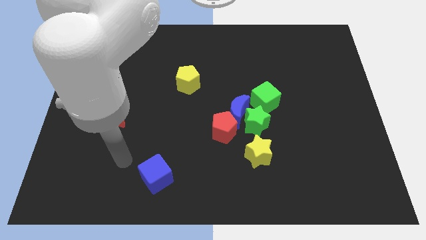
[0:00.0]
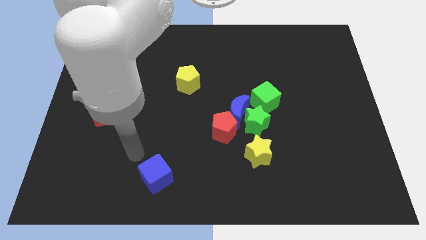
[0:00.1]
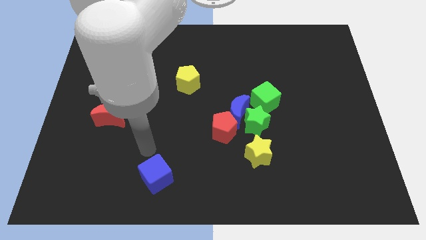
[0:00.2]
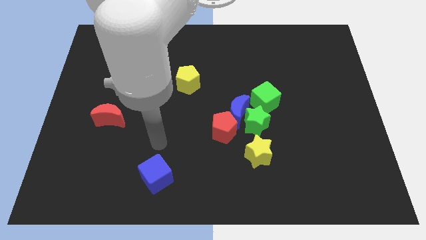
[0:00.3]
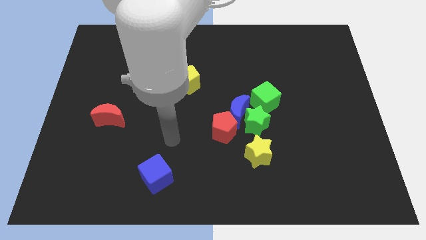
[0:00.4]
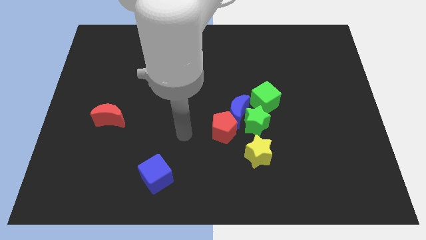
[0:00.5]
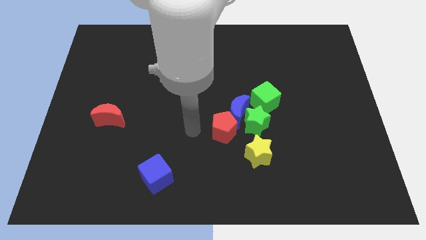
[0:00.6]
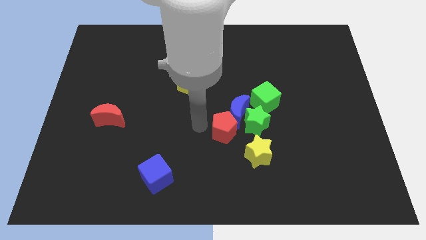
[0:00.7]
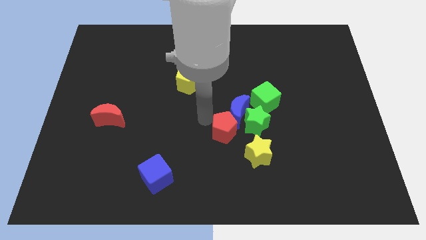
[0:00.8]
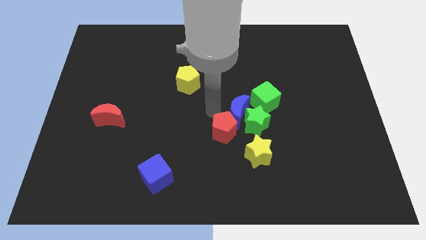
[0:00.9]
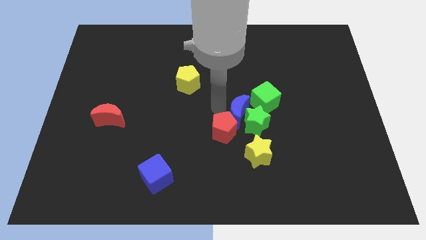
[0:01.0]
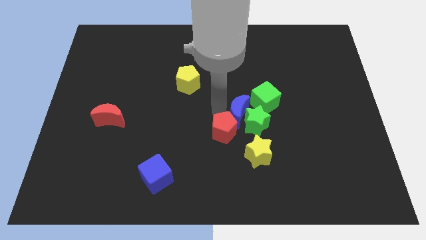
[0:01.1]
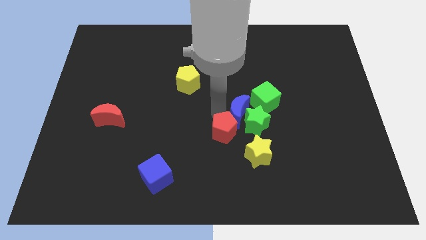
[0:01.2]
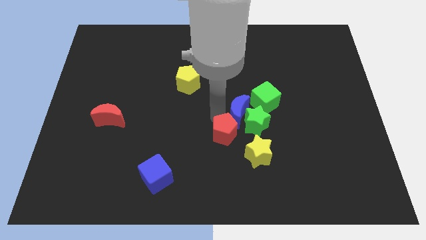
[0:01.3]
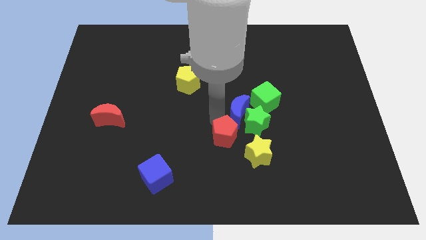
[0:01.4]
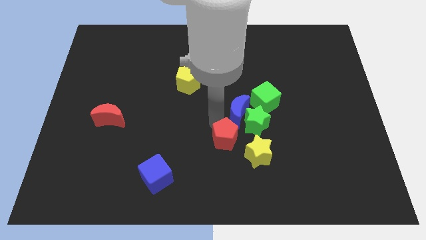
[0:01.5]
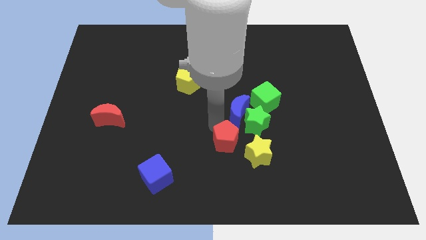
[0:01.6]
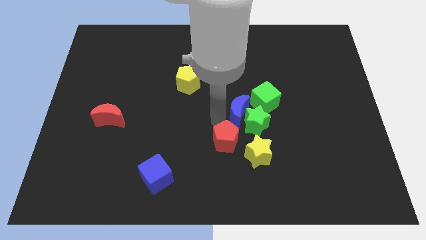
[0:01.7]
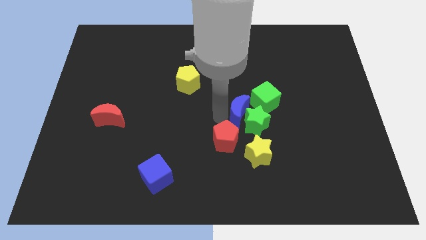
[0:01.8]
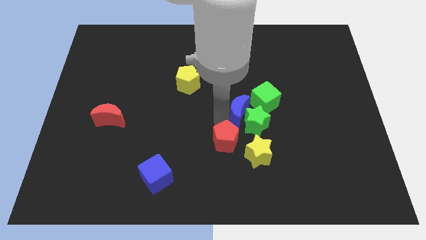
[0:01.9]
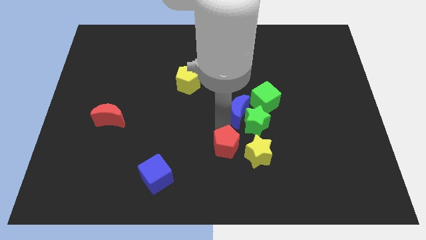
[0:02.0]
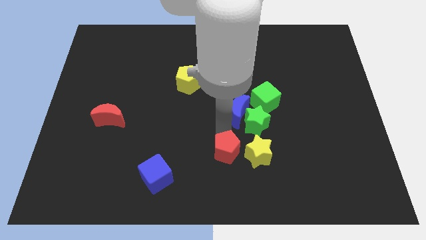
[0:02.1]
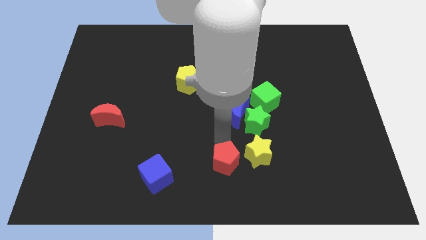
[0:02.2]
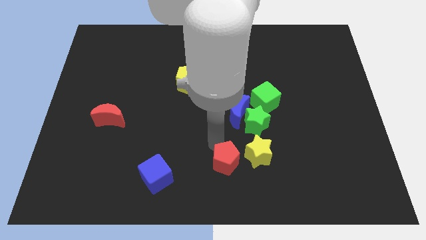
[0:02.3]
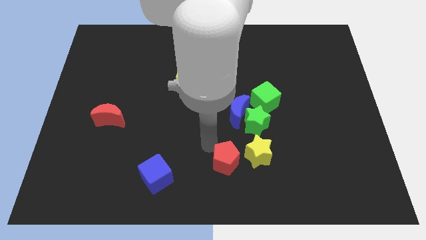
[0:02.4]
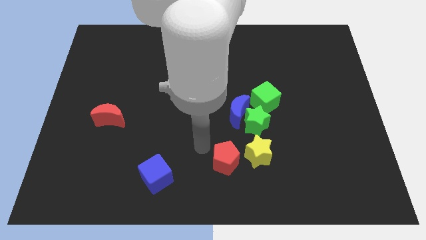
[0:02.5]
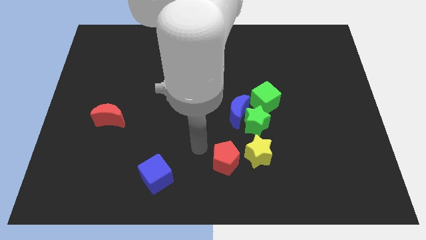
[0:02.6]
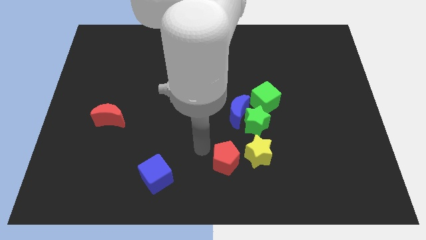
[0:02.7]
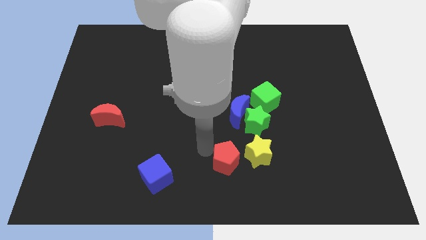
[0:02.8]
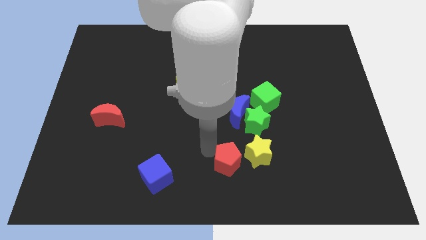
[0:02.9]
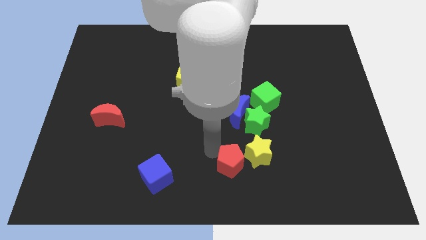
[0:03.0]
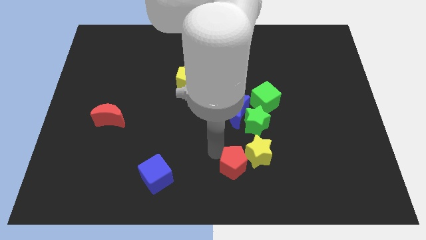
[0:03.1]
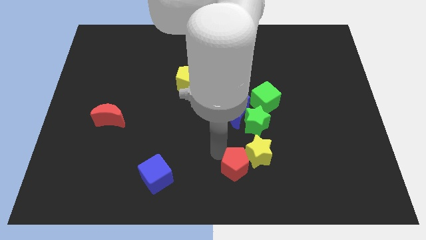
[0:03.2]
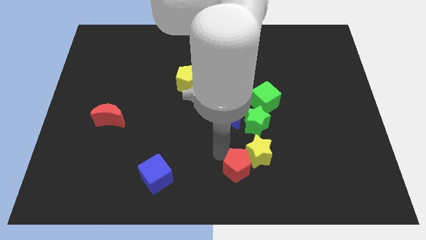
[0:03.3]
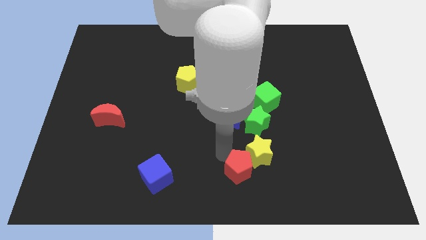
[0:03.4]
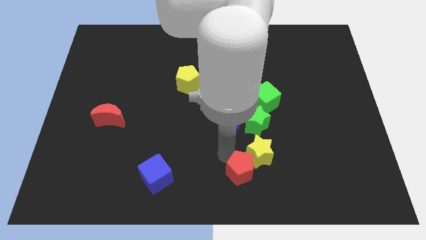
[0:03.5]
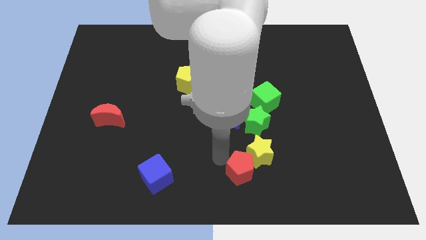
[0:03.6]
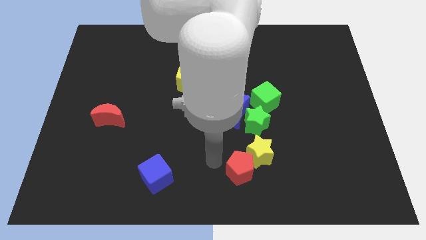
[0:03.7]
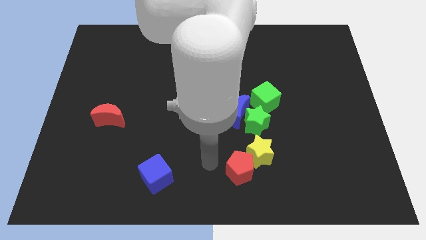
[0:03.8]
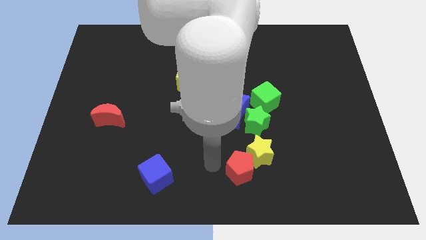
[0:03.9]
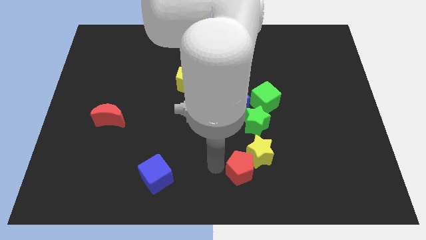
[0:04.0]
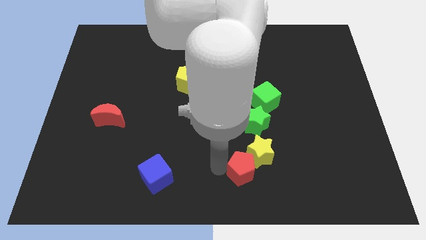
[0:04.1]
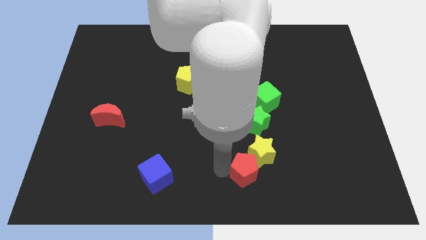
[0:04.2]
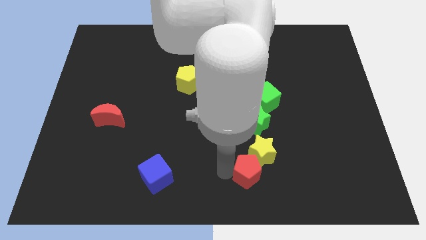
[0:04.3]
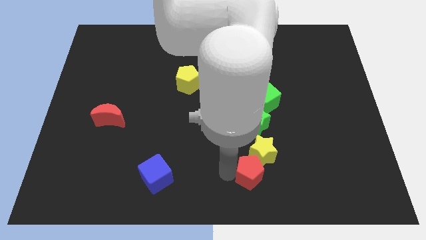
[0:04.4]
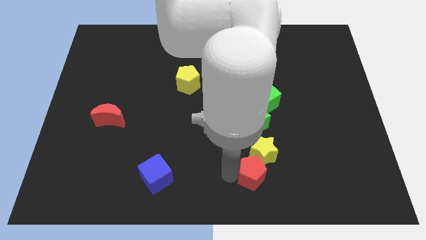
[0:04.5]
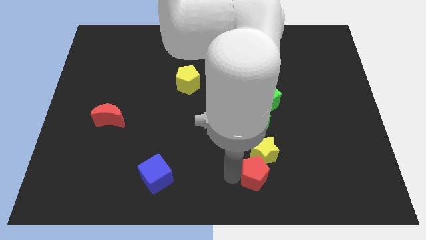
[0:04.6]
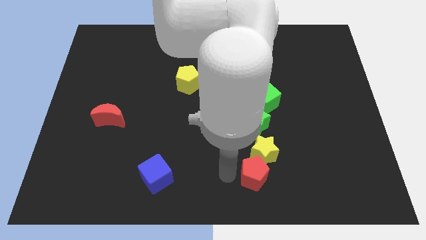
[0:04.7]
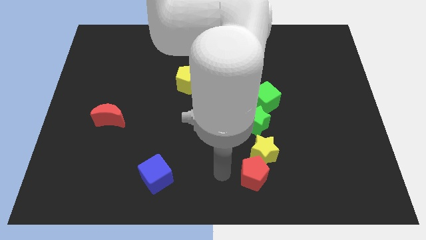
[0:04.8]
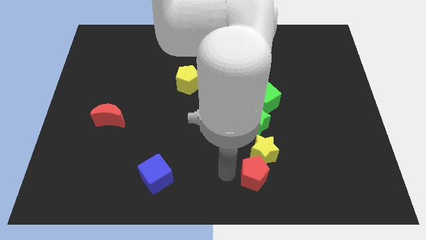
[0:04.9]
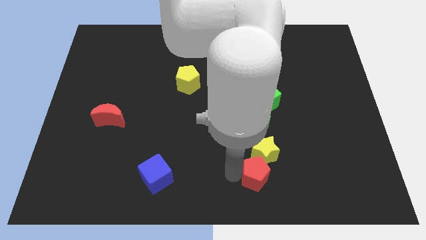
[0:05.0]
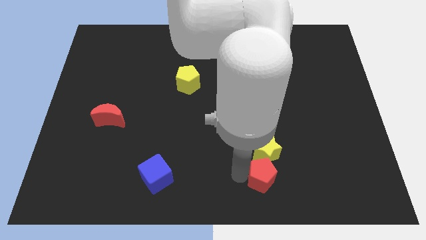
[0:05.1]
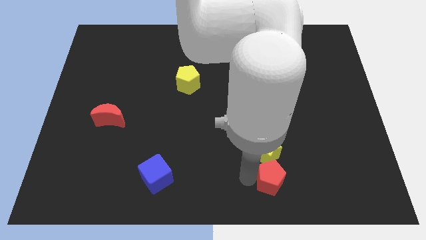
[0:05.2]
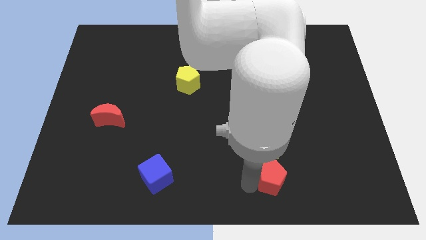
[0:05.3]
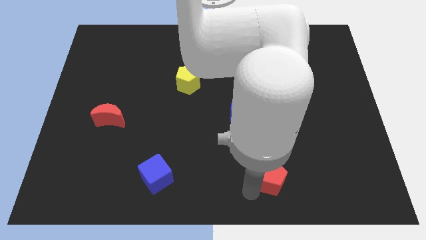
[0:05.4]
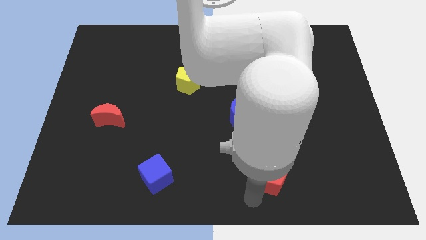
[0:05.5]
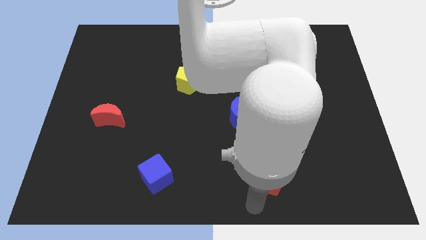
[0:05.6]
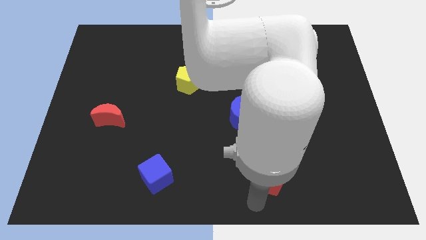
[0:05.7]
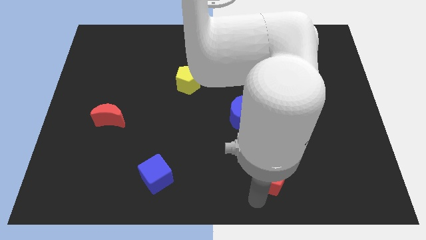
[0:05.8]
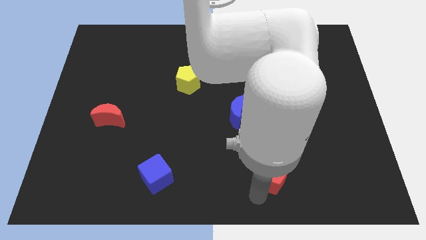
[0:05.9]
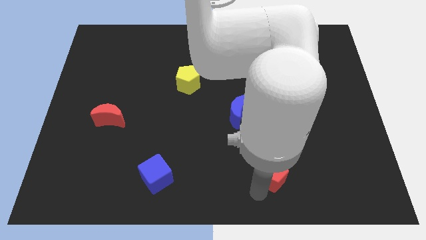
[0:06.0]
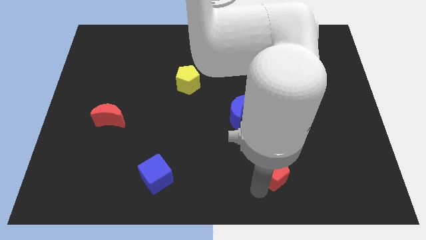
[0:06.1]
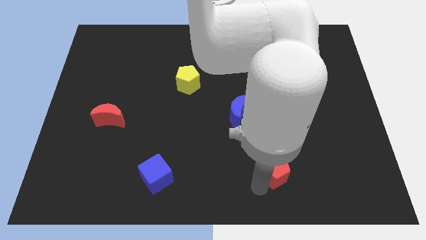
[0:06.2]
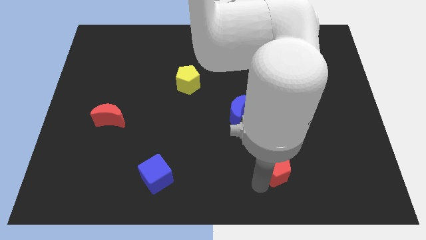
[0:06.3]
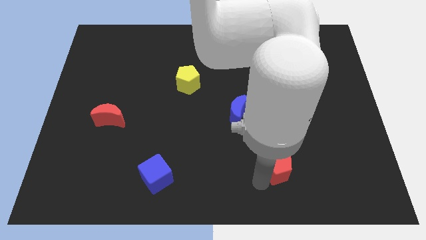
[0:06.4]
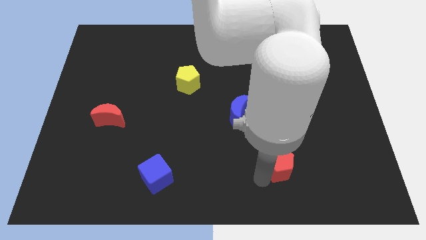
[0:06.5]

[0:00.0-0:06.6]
slightly push the red pentagon right

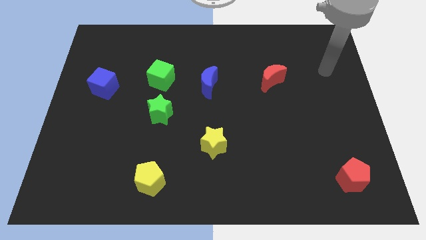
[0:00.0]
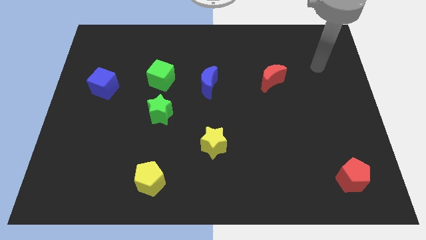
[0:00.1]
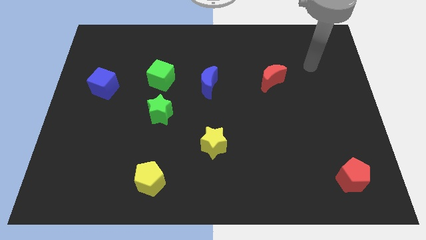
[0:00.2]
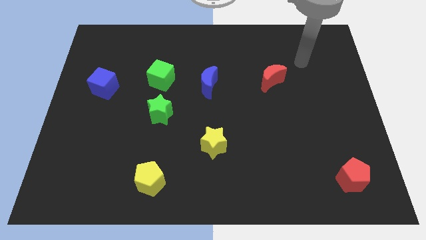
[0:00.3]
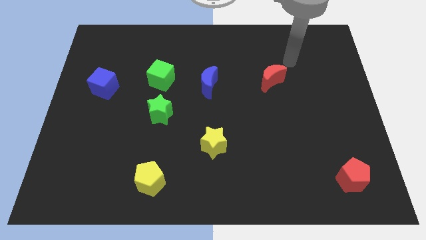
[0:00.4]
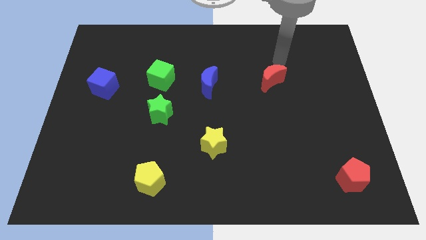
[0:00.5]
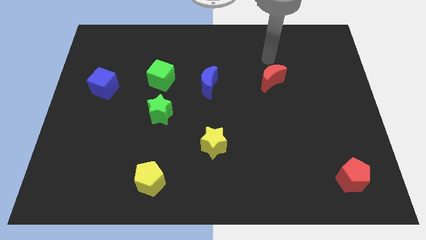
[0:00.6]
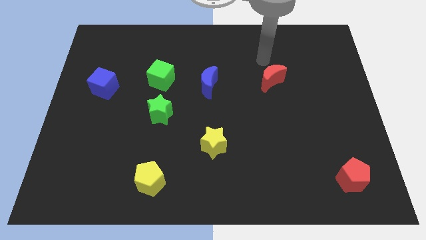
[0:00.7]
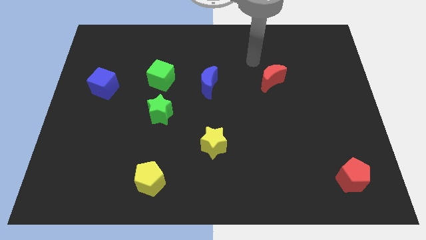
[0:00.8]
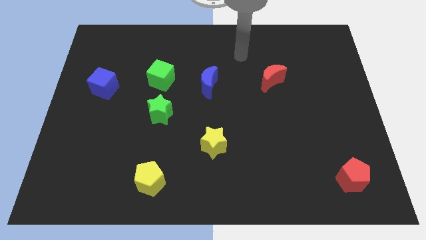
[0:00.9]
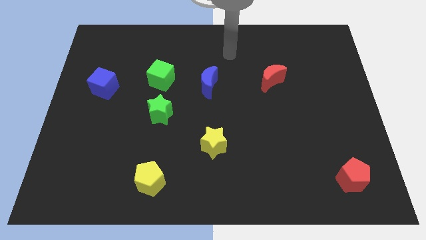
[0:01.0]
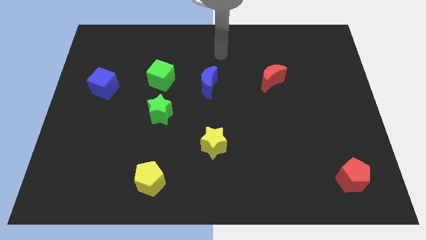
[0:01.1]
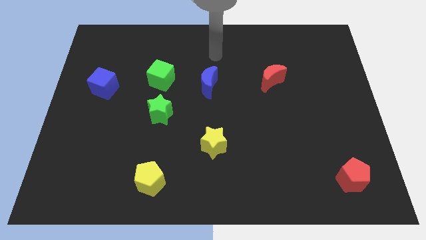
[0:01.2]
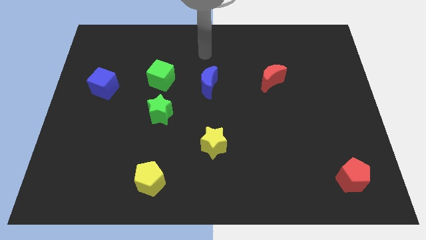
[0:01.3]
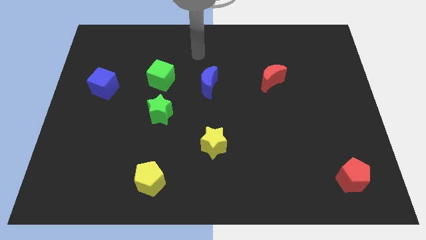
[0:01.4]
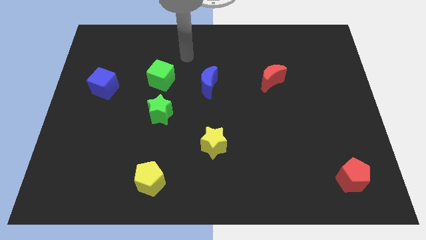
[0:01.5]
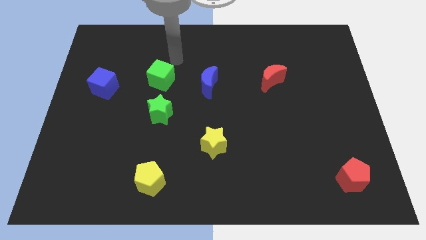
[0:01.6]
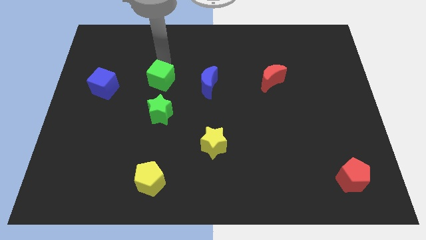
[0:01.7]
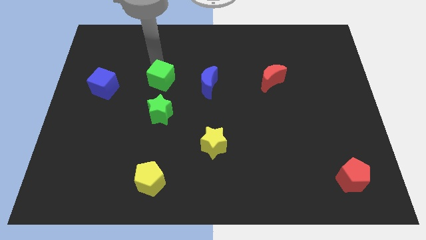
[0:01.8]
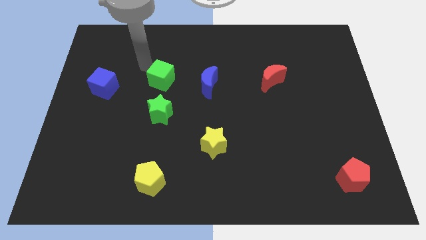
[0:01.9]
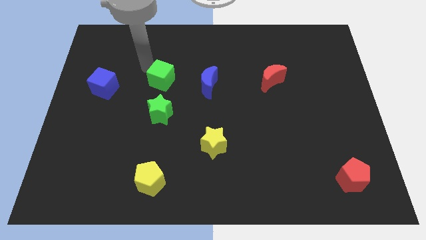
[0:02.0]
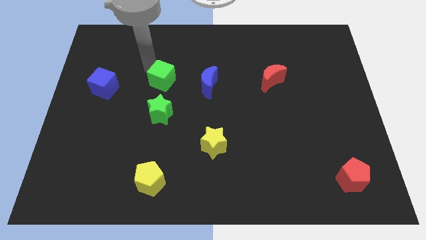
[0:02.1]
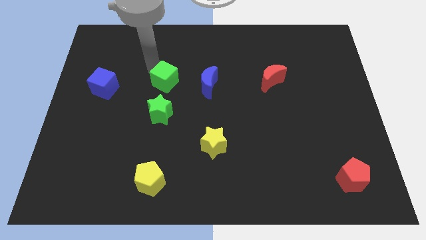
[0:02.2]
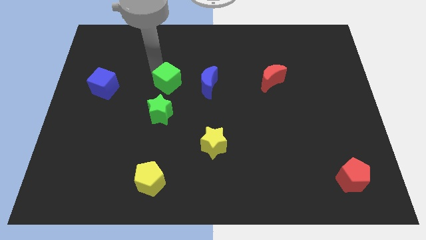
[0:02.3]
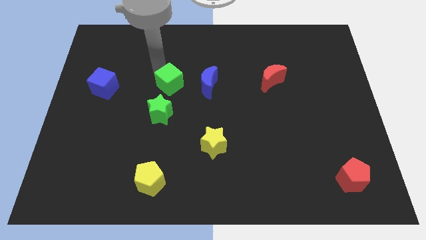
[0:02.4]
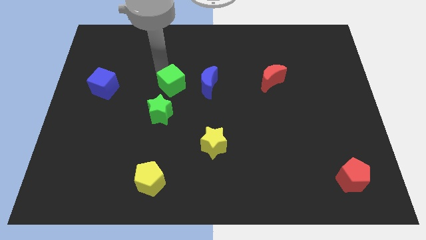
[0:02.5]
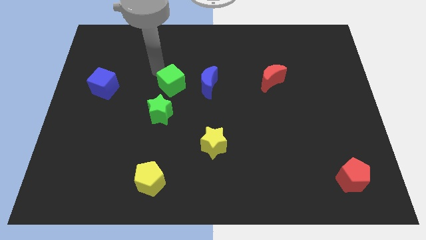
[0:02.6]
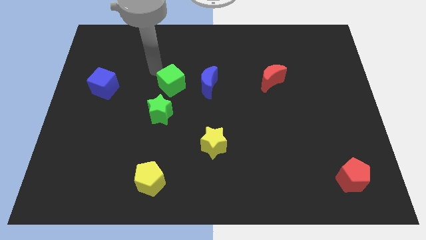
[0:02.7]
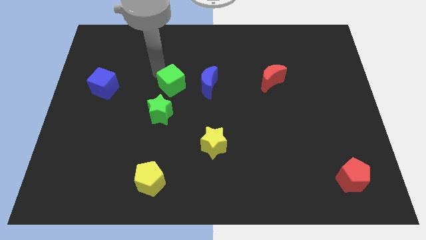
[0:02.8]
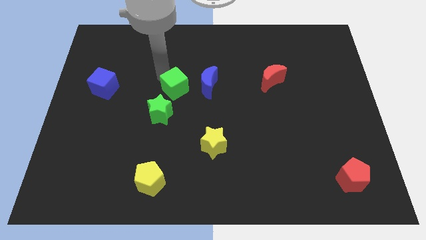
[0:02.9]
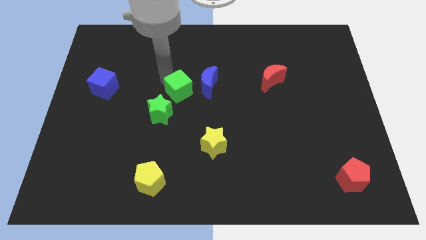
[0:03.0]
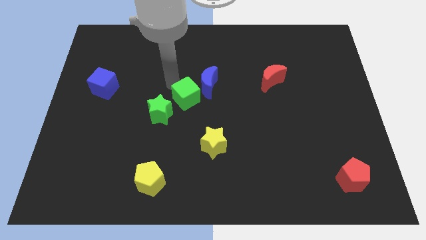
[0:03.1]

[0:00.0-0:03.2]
push the green cube downwards and right a little bit
